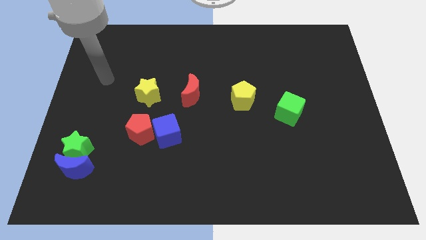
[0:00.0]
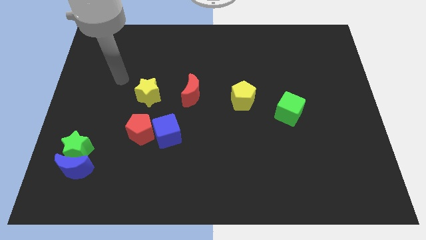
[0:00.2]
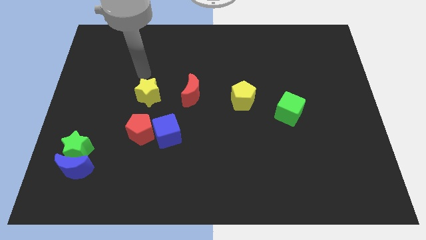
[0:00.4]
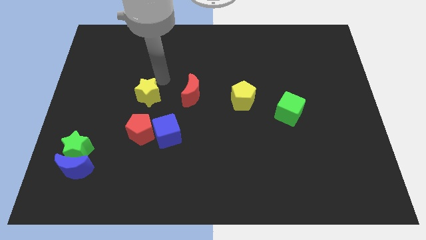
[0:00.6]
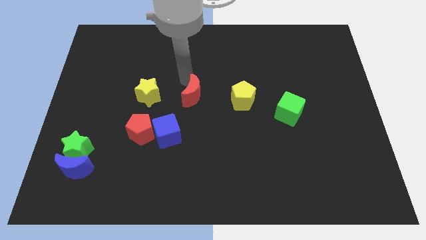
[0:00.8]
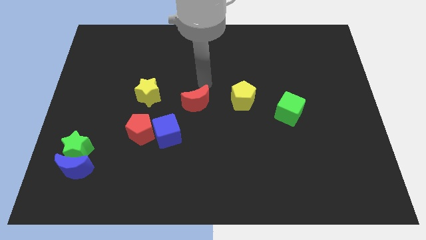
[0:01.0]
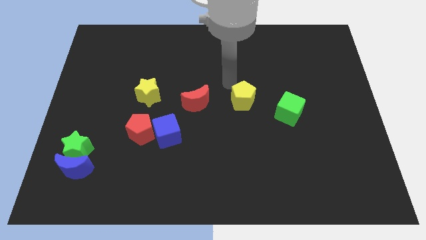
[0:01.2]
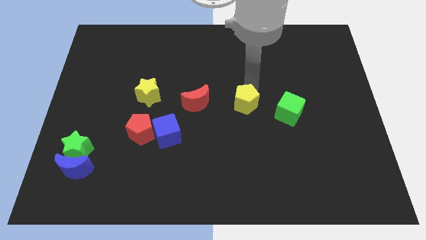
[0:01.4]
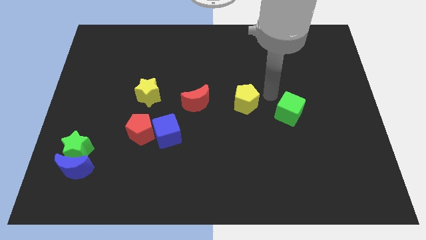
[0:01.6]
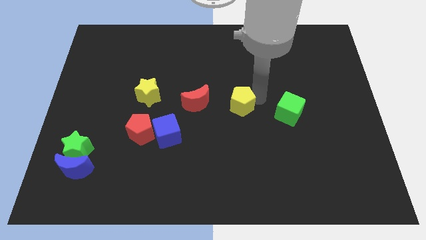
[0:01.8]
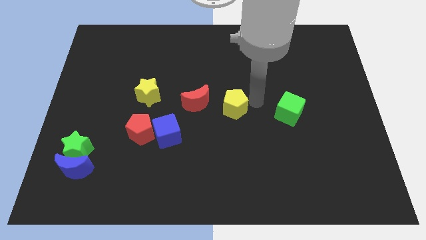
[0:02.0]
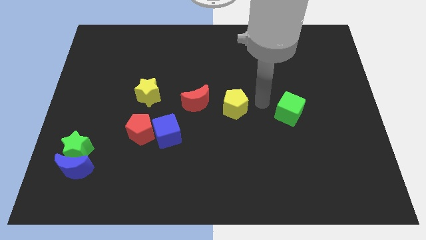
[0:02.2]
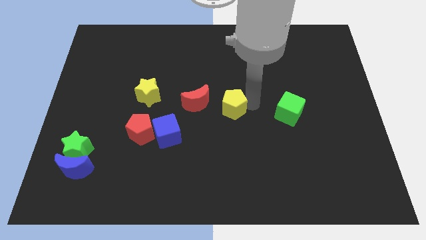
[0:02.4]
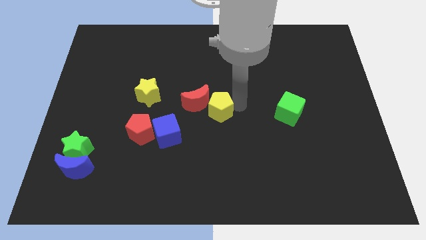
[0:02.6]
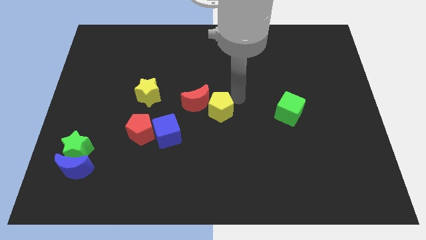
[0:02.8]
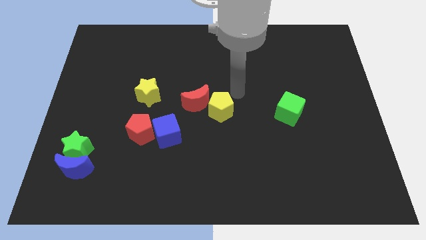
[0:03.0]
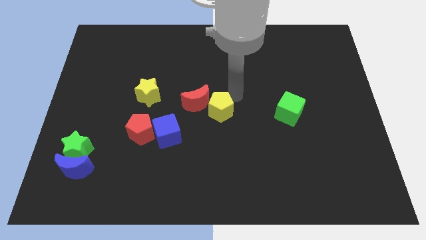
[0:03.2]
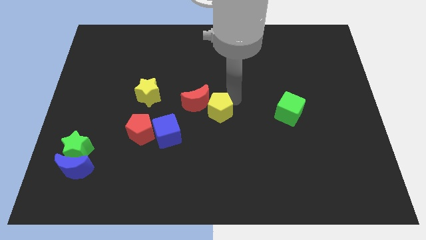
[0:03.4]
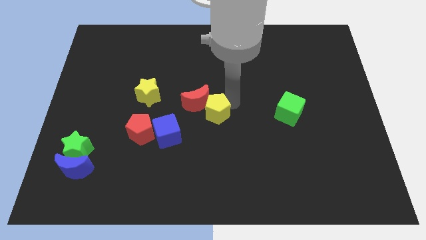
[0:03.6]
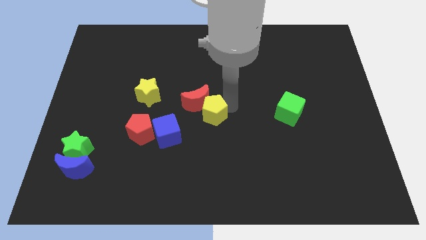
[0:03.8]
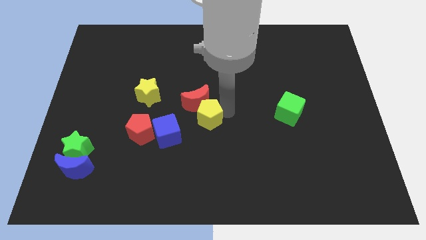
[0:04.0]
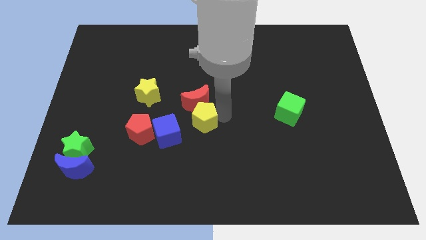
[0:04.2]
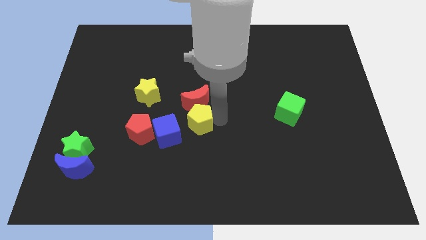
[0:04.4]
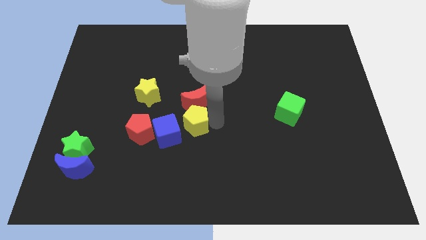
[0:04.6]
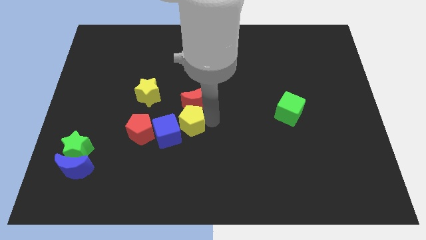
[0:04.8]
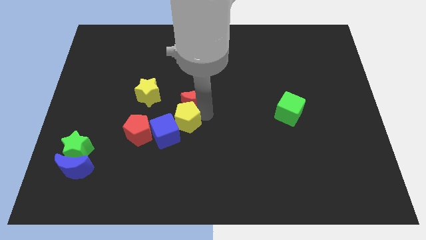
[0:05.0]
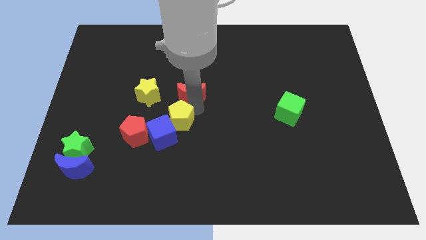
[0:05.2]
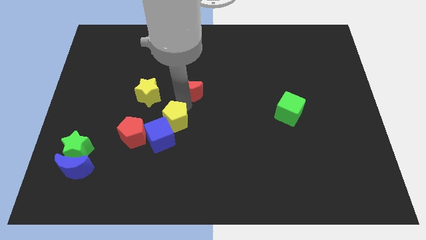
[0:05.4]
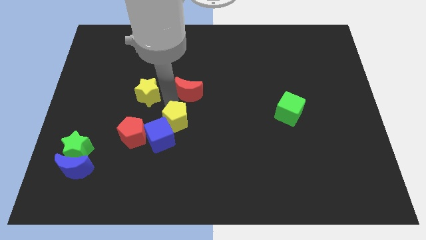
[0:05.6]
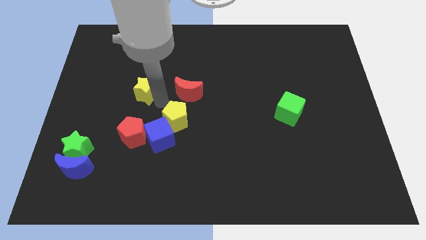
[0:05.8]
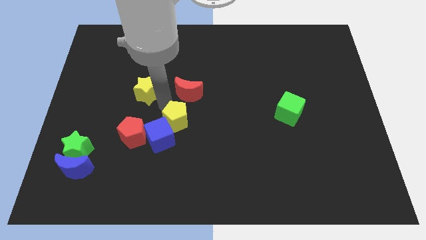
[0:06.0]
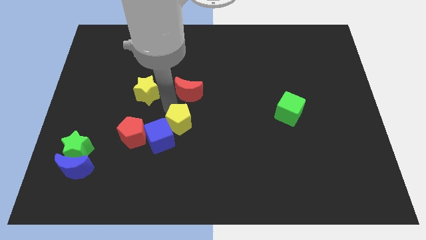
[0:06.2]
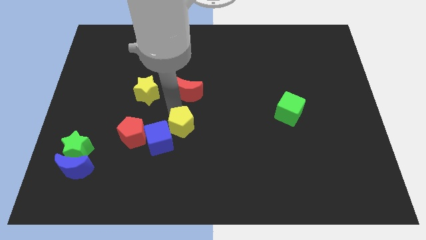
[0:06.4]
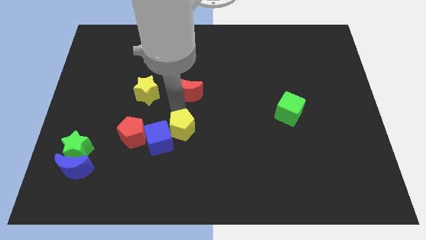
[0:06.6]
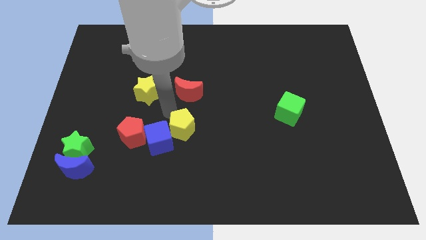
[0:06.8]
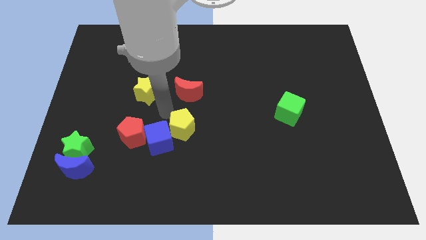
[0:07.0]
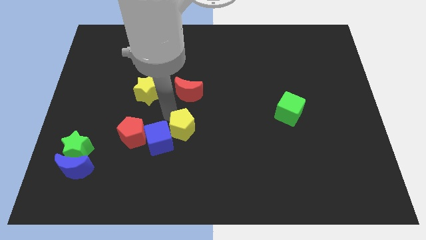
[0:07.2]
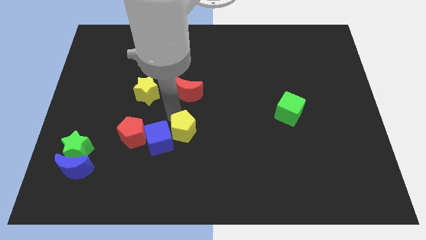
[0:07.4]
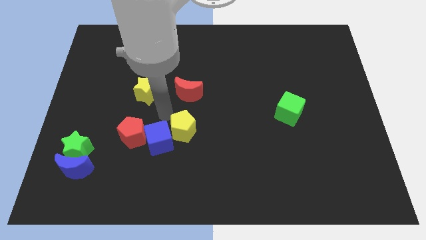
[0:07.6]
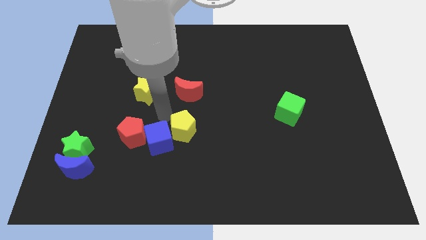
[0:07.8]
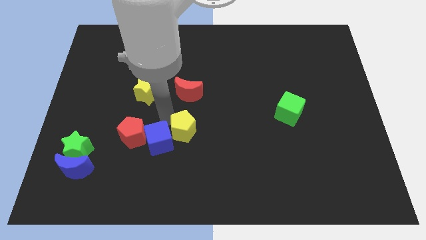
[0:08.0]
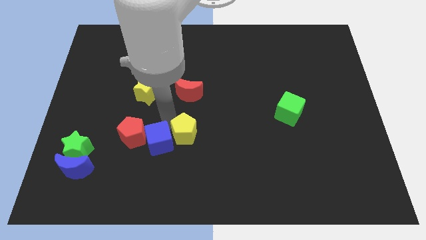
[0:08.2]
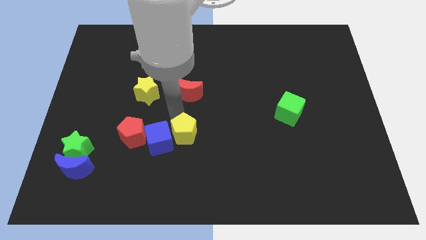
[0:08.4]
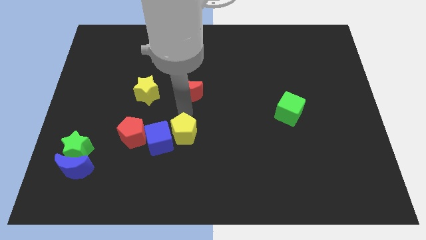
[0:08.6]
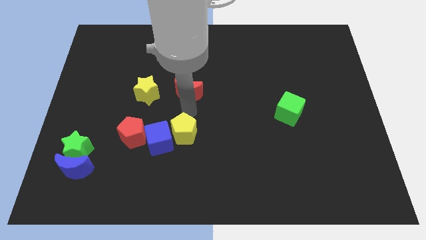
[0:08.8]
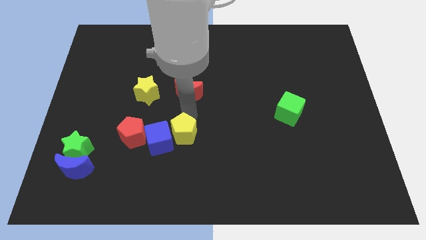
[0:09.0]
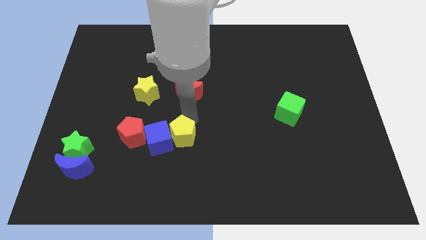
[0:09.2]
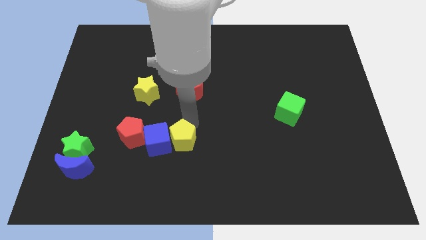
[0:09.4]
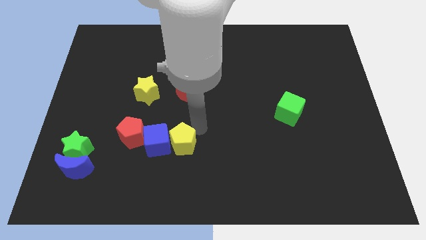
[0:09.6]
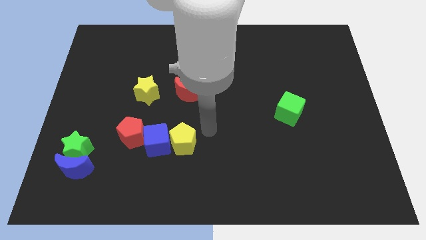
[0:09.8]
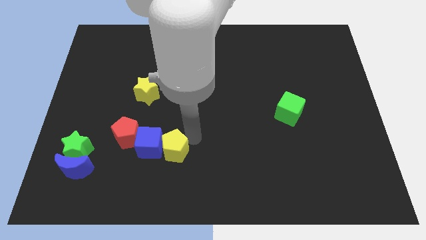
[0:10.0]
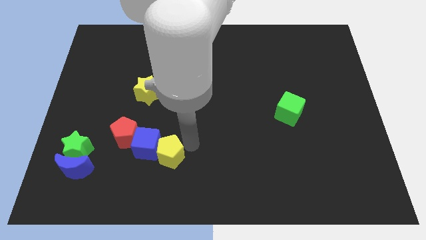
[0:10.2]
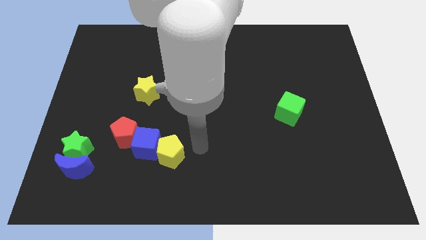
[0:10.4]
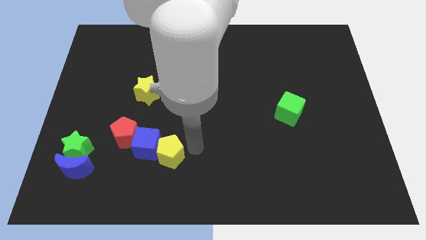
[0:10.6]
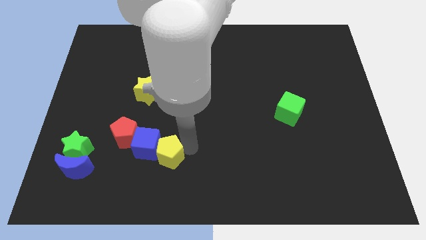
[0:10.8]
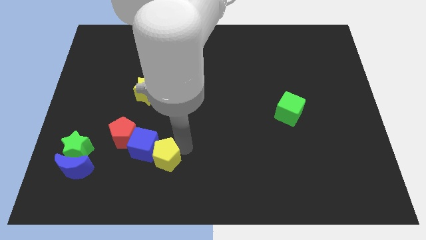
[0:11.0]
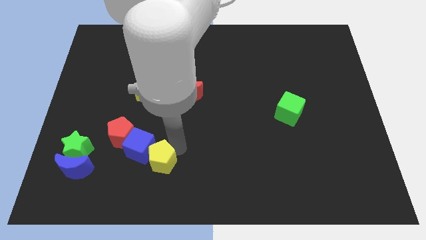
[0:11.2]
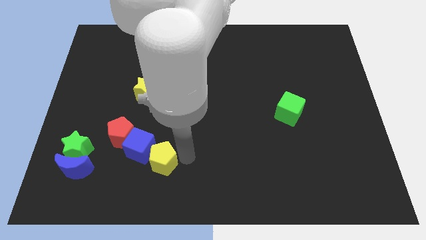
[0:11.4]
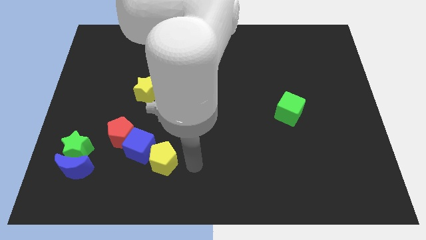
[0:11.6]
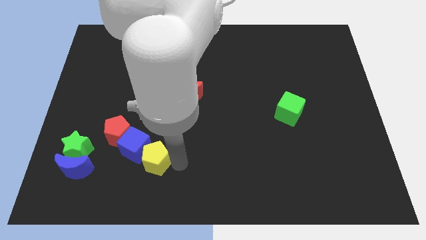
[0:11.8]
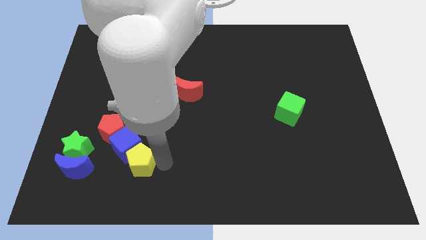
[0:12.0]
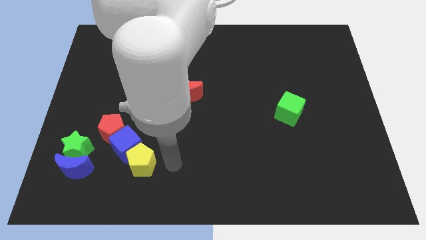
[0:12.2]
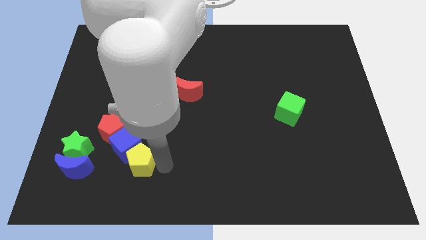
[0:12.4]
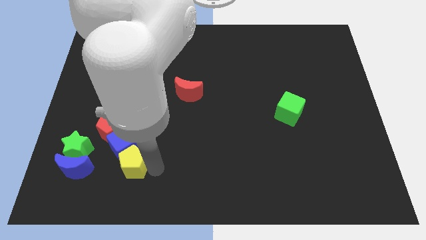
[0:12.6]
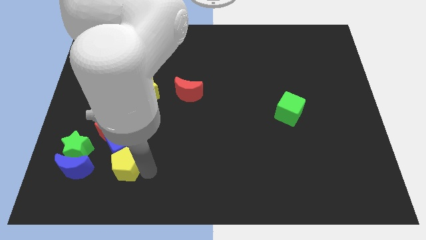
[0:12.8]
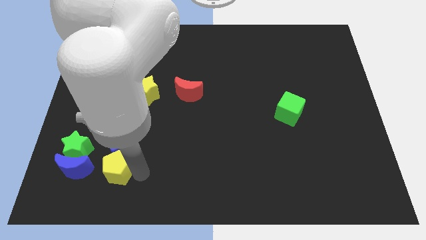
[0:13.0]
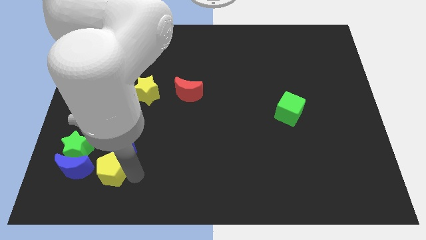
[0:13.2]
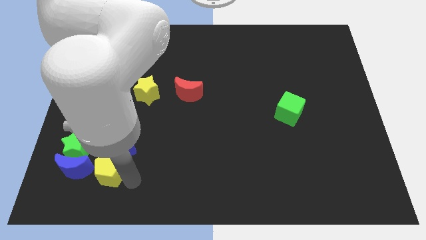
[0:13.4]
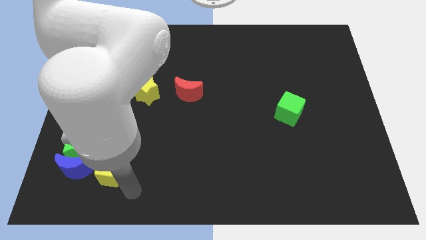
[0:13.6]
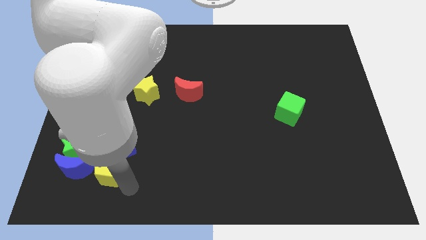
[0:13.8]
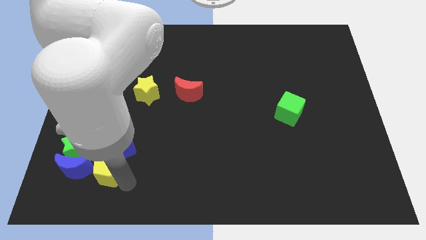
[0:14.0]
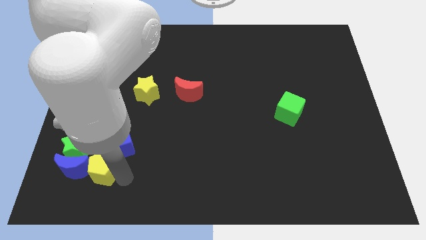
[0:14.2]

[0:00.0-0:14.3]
put the yellow pentagon towards the blue moon
